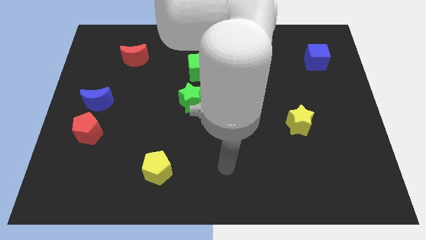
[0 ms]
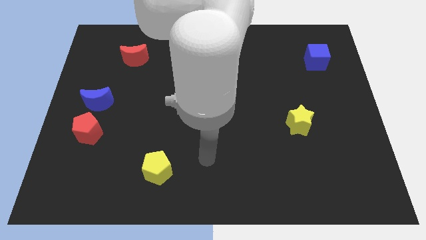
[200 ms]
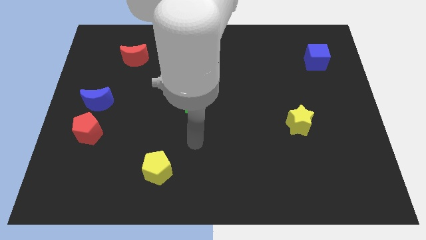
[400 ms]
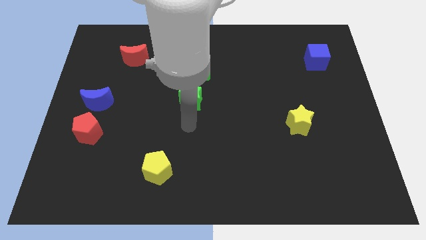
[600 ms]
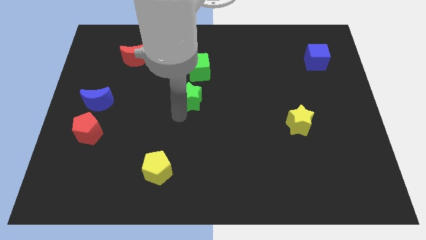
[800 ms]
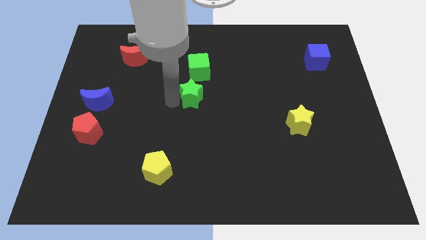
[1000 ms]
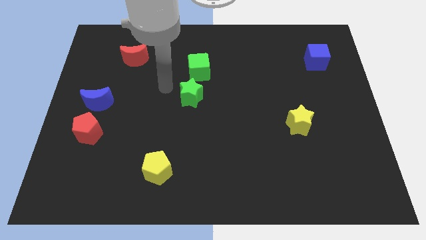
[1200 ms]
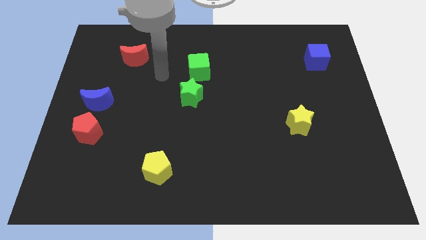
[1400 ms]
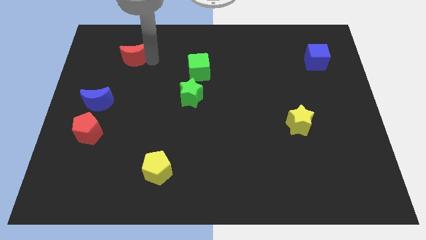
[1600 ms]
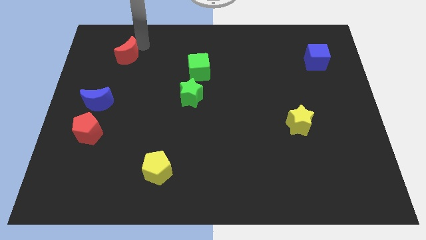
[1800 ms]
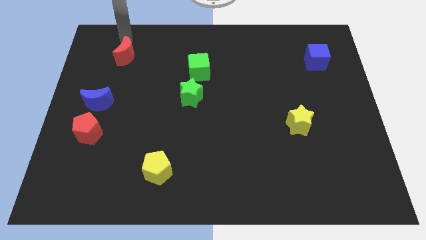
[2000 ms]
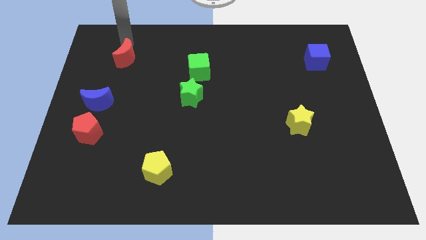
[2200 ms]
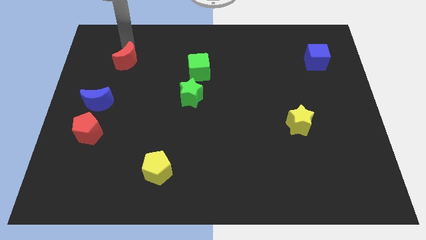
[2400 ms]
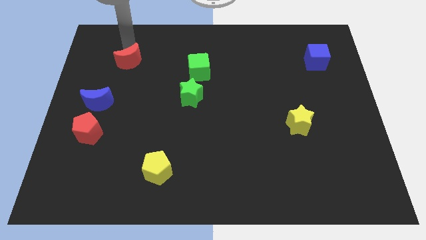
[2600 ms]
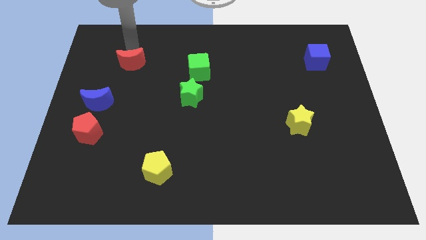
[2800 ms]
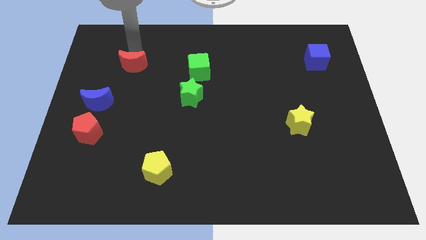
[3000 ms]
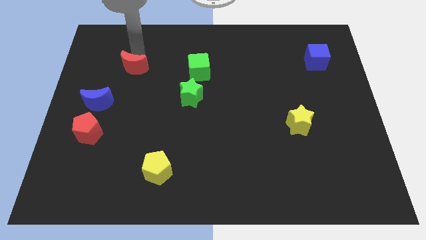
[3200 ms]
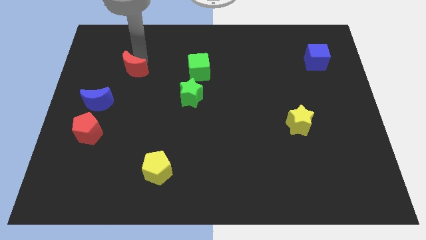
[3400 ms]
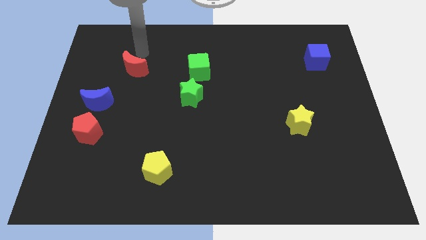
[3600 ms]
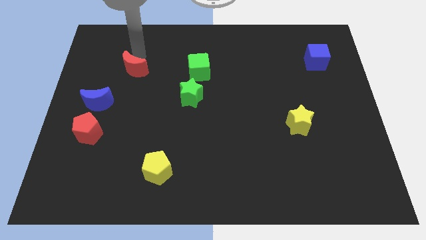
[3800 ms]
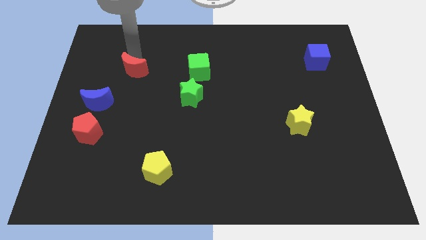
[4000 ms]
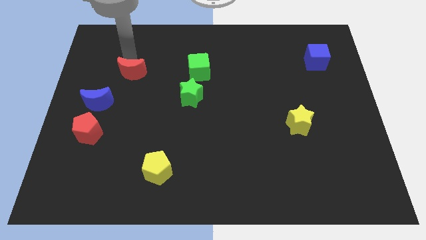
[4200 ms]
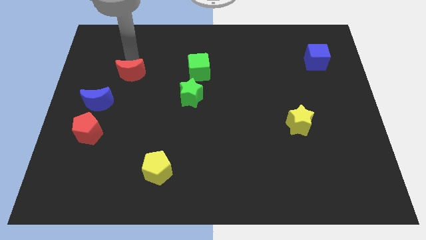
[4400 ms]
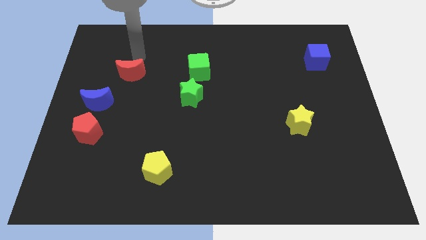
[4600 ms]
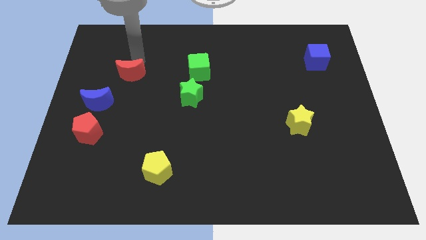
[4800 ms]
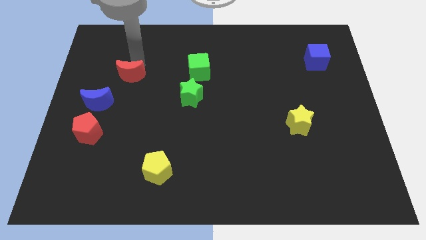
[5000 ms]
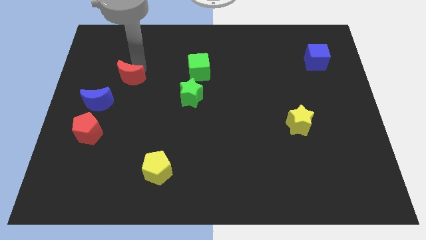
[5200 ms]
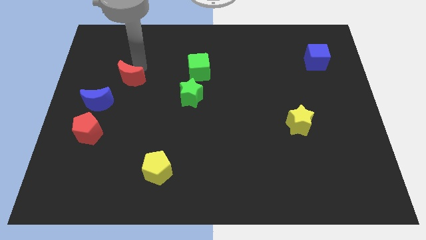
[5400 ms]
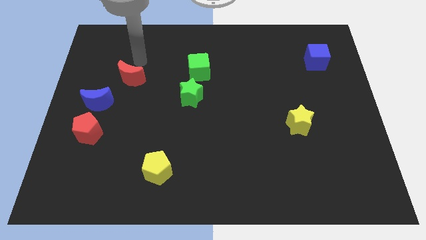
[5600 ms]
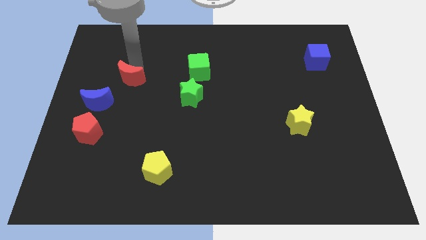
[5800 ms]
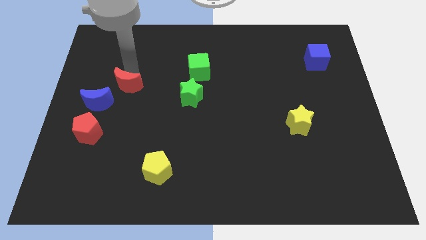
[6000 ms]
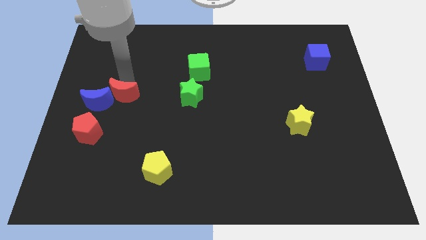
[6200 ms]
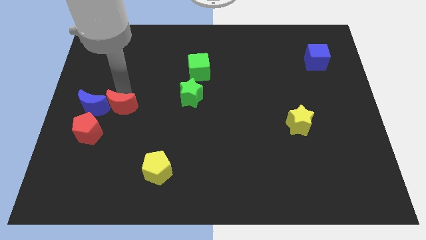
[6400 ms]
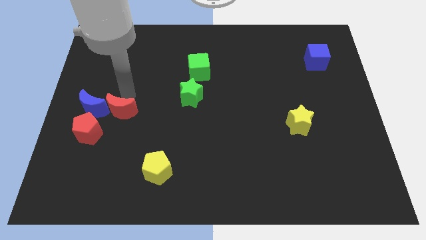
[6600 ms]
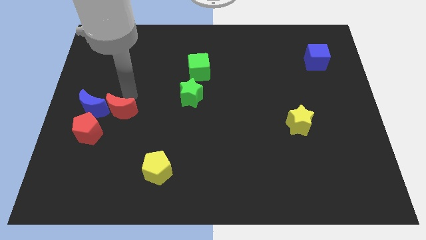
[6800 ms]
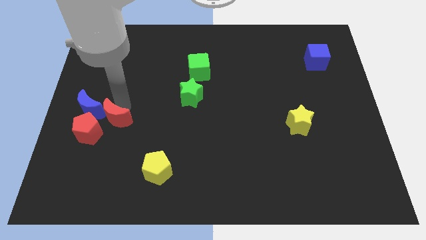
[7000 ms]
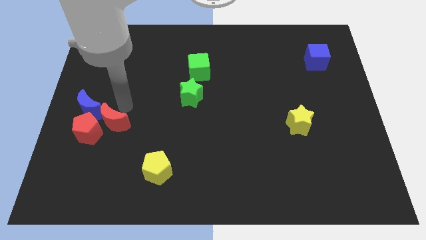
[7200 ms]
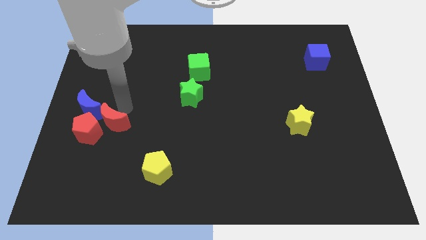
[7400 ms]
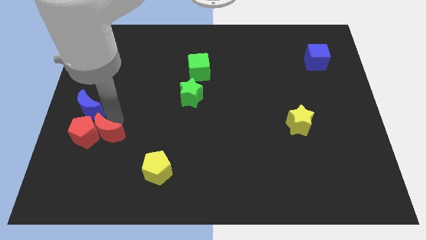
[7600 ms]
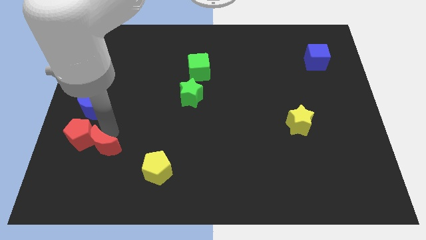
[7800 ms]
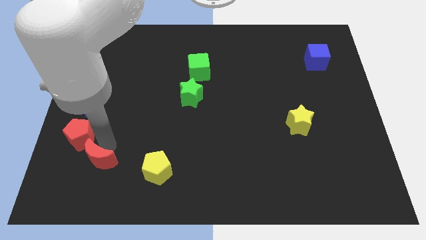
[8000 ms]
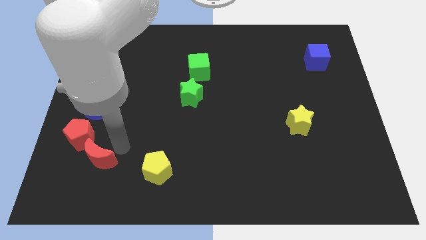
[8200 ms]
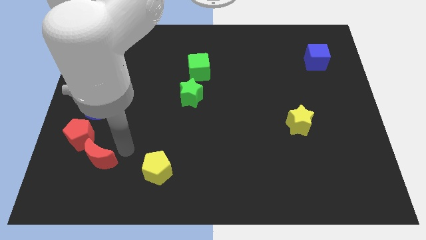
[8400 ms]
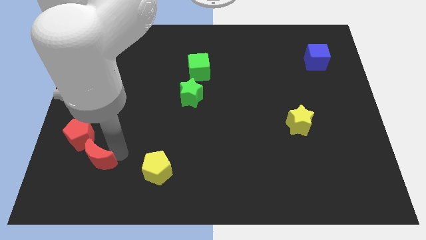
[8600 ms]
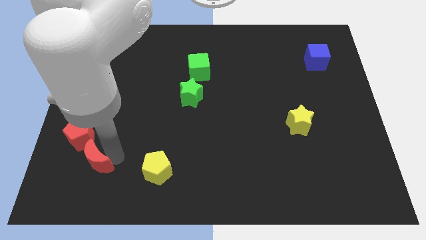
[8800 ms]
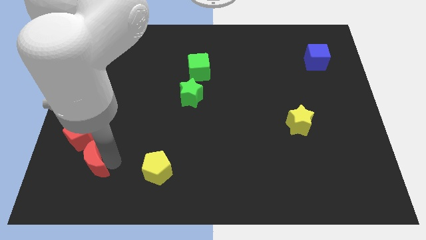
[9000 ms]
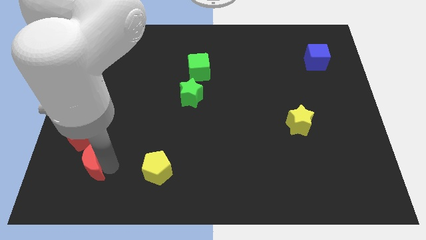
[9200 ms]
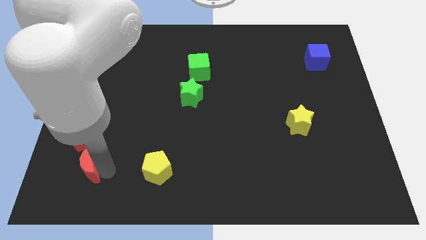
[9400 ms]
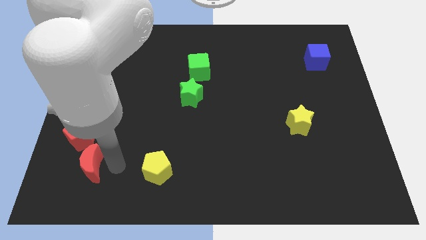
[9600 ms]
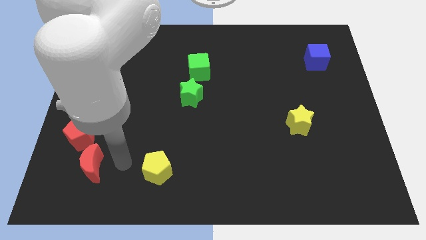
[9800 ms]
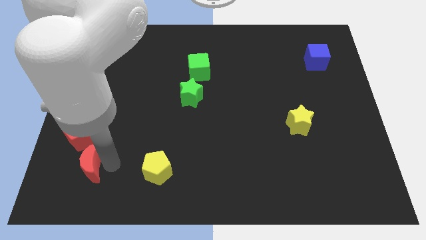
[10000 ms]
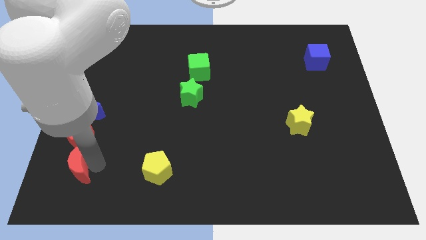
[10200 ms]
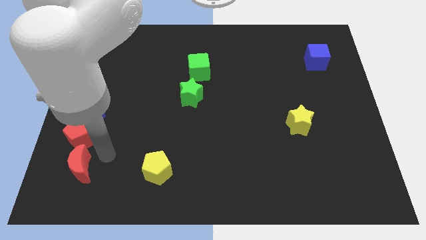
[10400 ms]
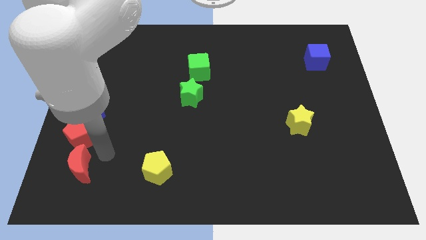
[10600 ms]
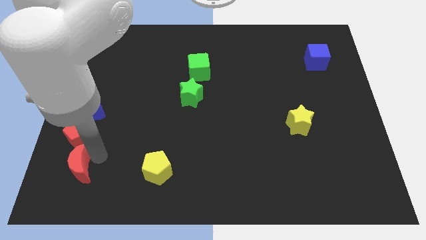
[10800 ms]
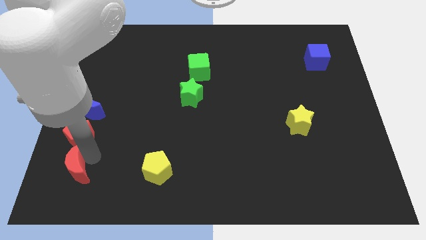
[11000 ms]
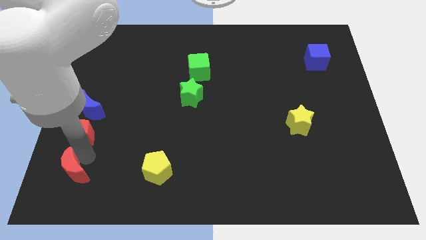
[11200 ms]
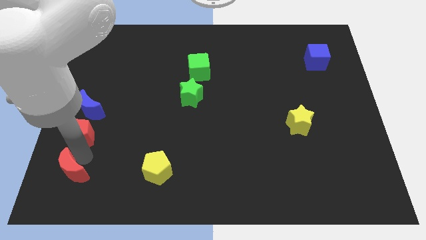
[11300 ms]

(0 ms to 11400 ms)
slide the red moon to the lower left corner

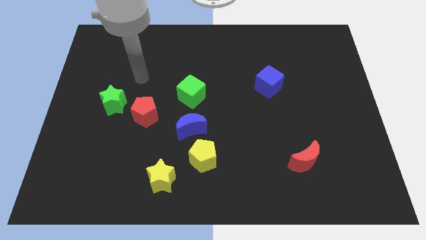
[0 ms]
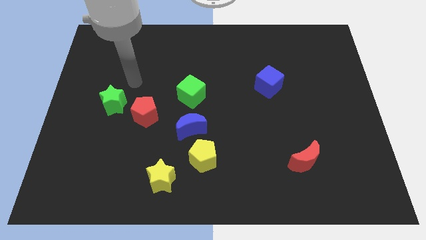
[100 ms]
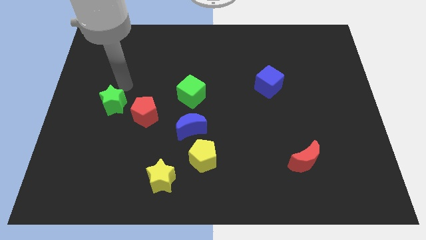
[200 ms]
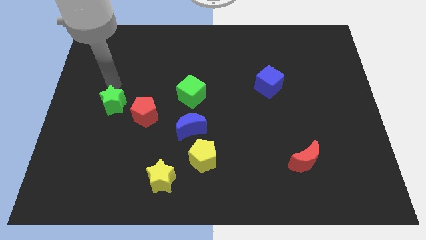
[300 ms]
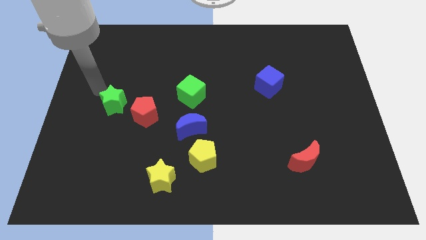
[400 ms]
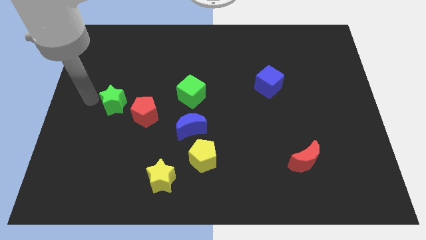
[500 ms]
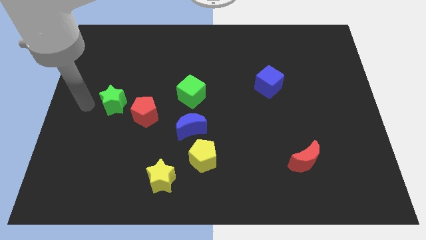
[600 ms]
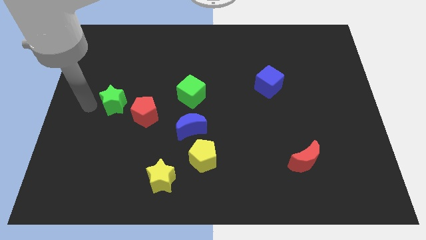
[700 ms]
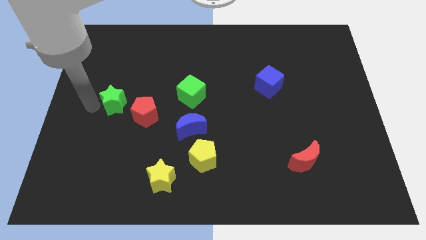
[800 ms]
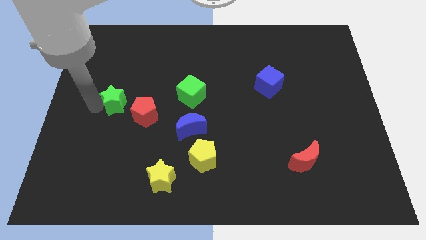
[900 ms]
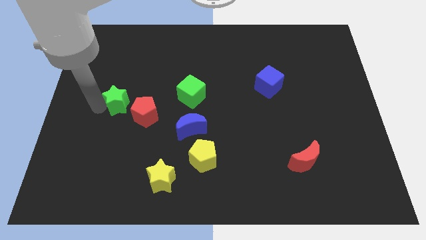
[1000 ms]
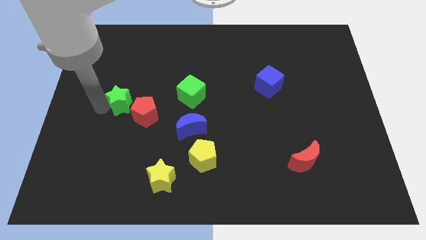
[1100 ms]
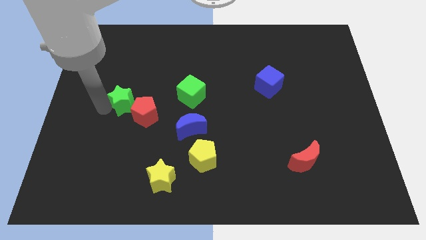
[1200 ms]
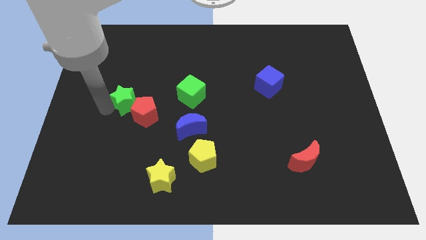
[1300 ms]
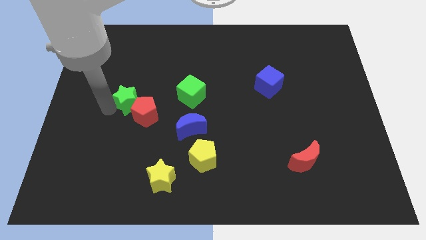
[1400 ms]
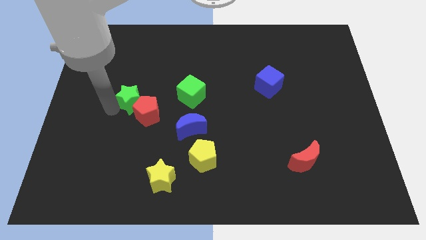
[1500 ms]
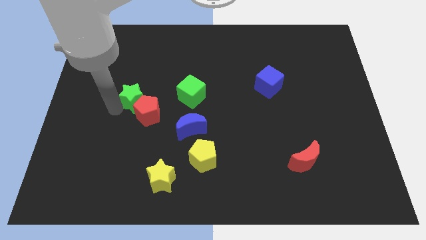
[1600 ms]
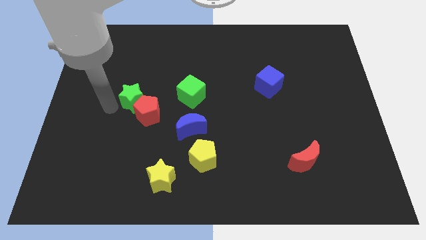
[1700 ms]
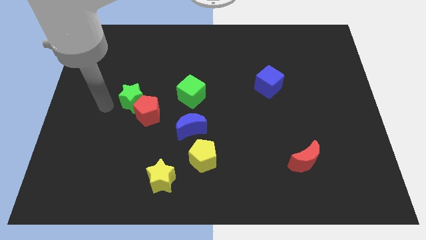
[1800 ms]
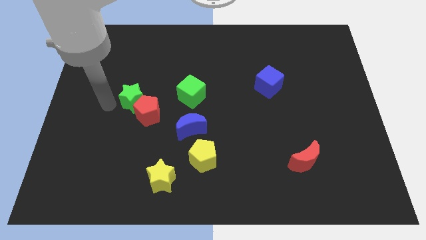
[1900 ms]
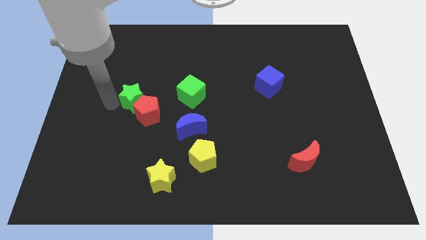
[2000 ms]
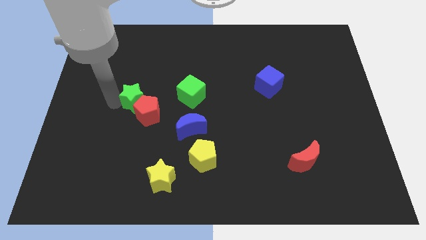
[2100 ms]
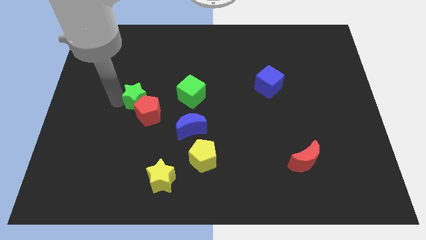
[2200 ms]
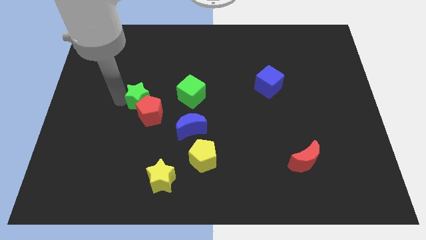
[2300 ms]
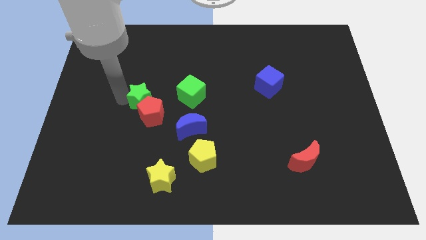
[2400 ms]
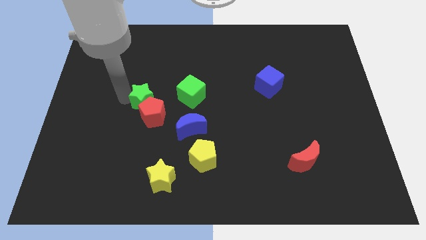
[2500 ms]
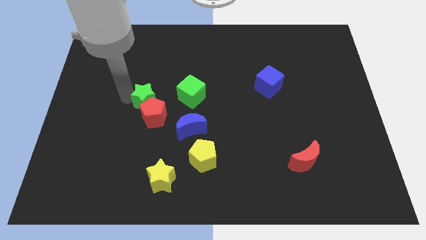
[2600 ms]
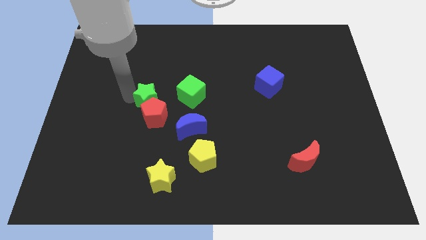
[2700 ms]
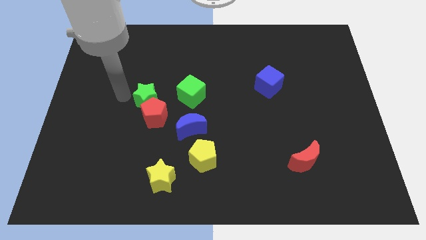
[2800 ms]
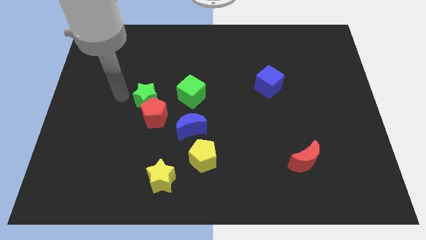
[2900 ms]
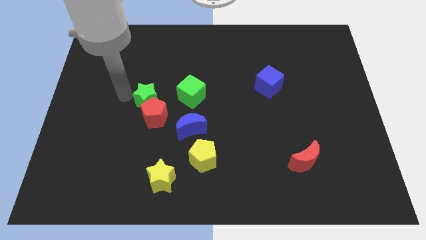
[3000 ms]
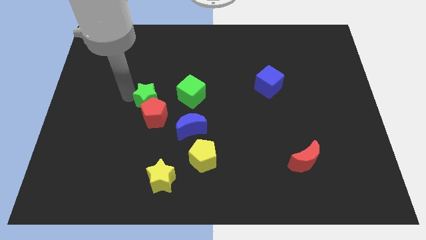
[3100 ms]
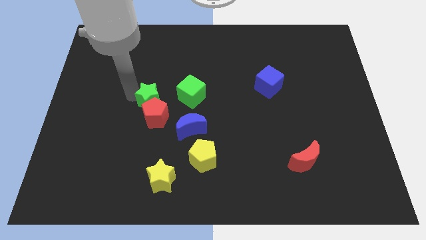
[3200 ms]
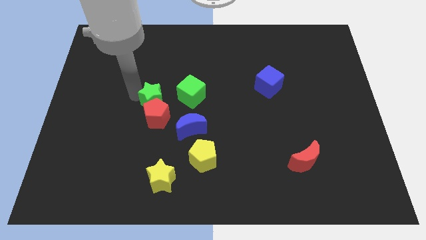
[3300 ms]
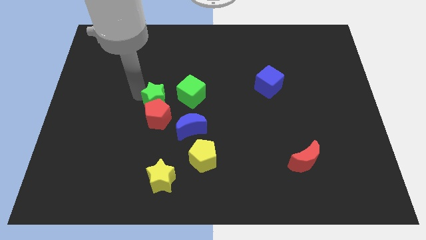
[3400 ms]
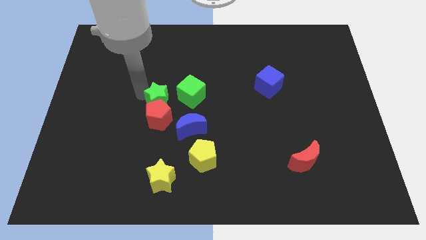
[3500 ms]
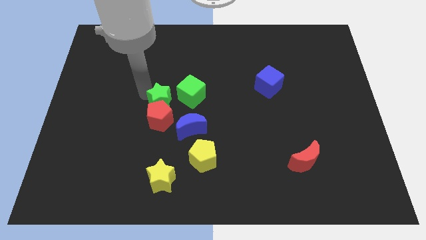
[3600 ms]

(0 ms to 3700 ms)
slide the green star to the middle
